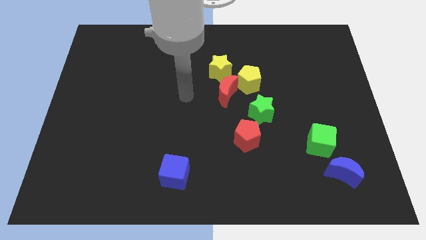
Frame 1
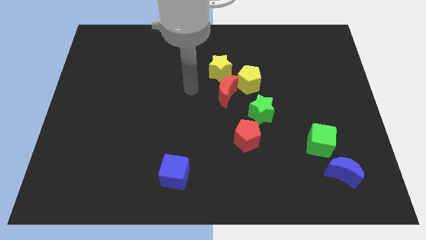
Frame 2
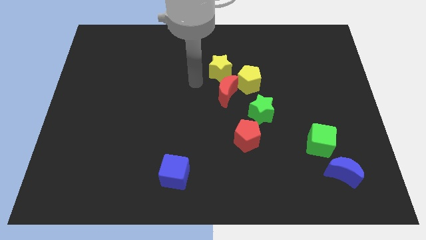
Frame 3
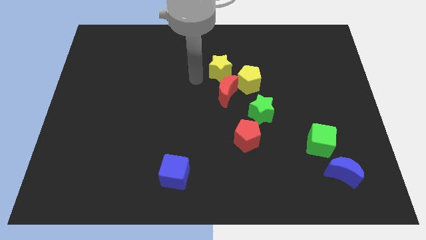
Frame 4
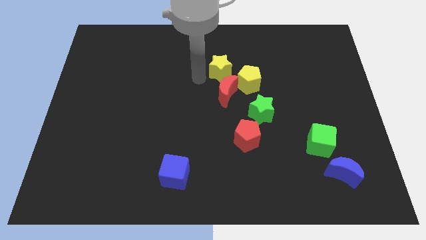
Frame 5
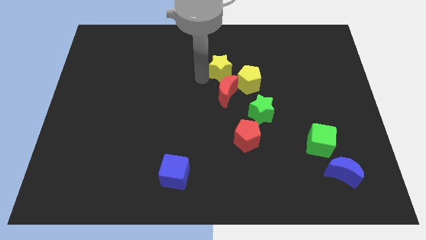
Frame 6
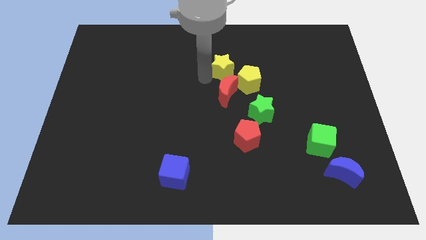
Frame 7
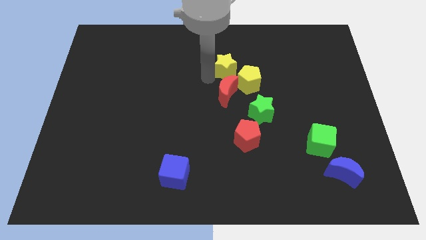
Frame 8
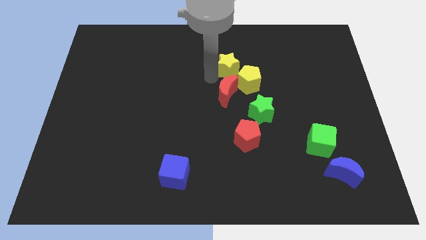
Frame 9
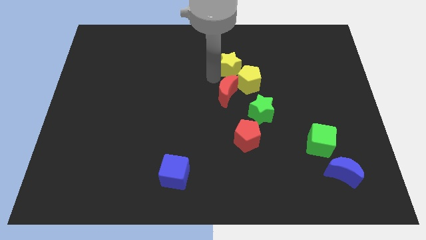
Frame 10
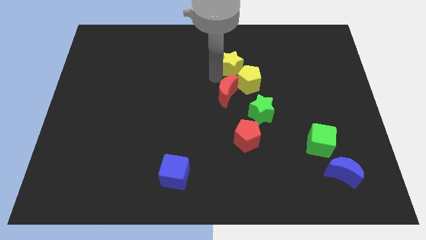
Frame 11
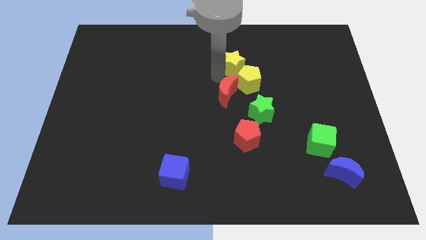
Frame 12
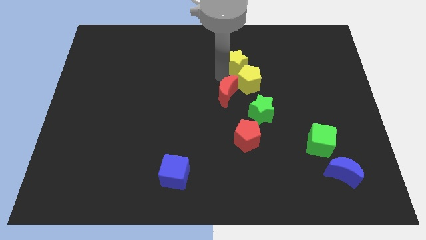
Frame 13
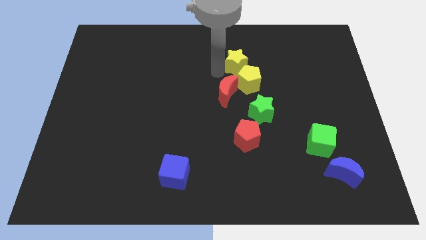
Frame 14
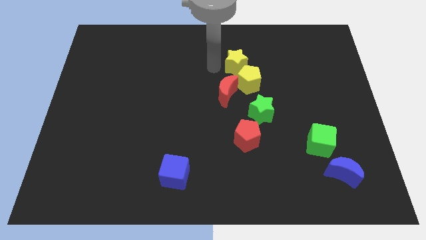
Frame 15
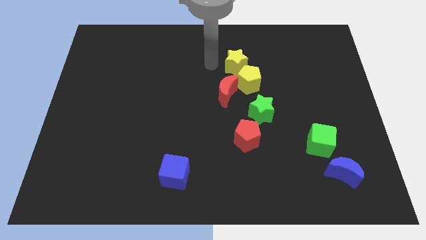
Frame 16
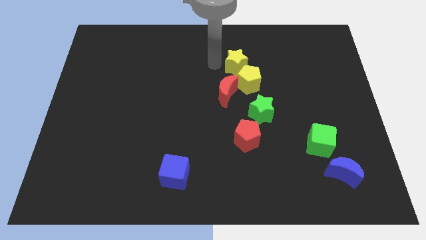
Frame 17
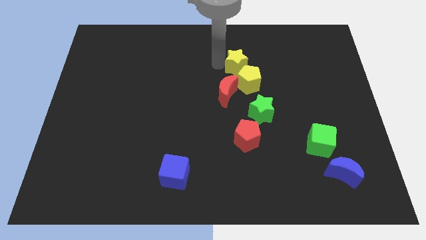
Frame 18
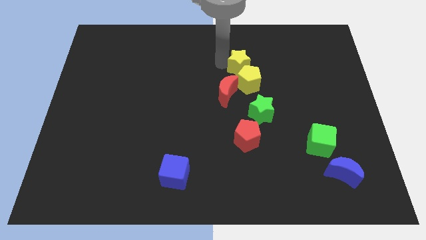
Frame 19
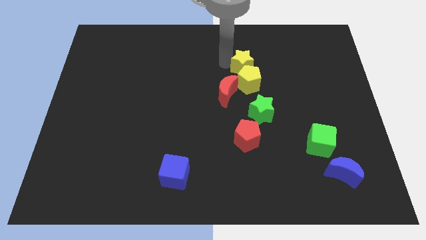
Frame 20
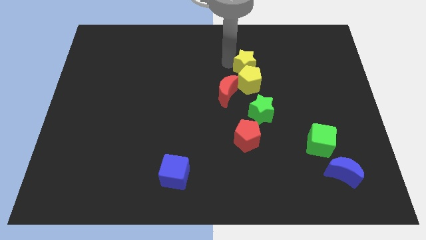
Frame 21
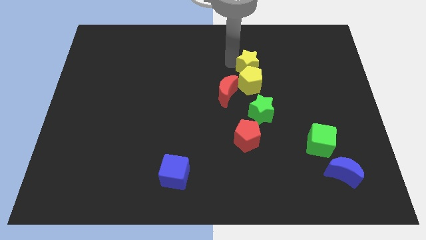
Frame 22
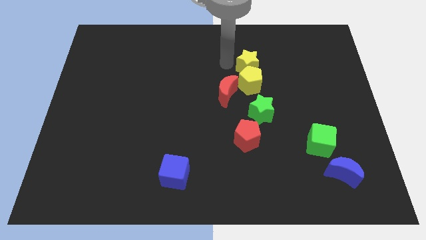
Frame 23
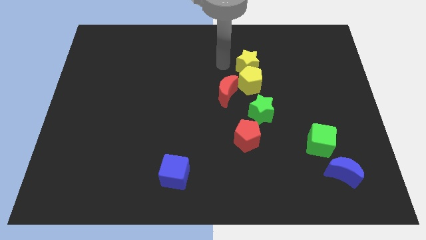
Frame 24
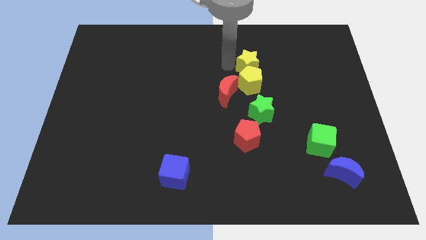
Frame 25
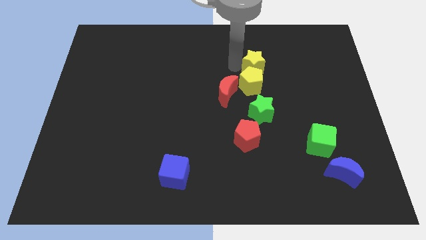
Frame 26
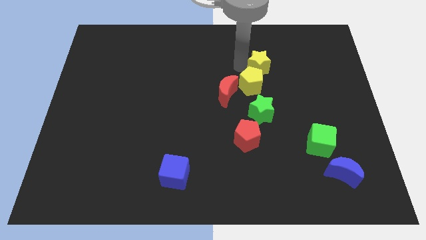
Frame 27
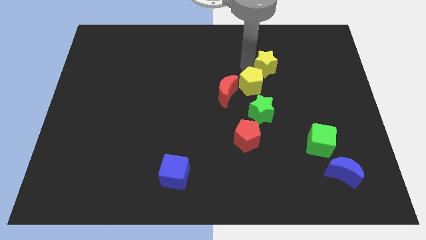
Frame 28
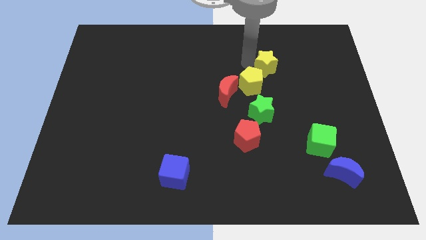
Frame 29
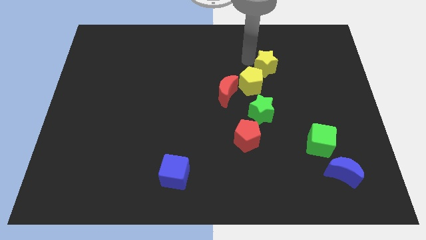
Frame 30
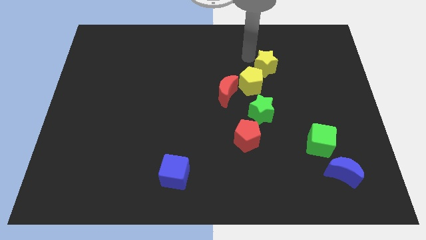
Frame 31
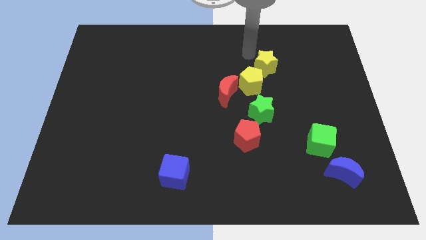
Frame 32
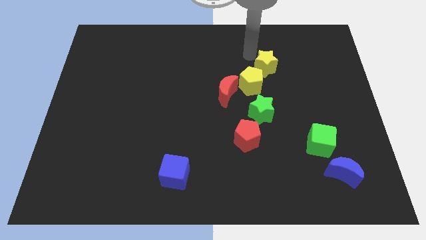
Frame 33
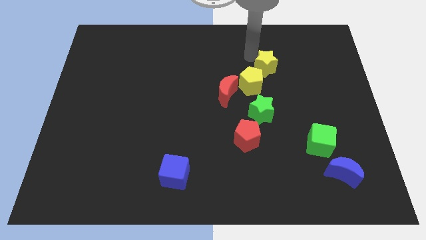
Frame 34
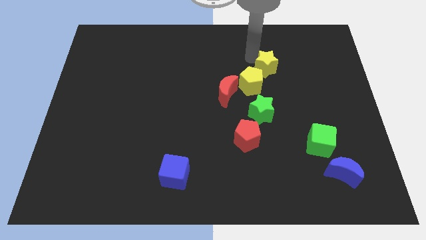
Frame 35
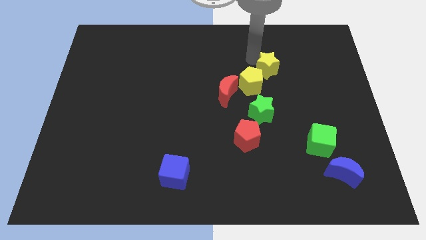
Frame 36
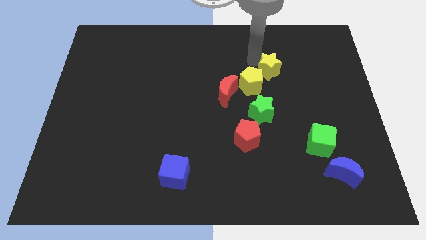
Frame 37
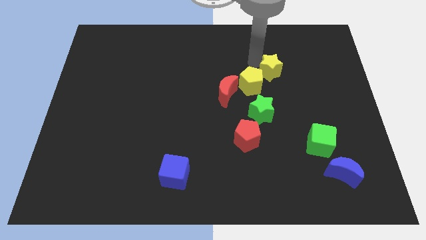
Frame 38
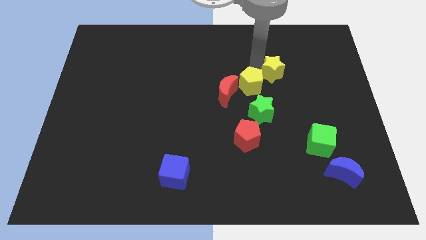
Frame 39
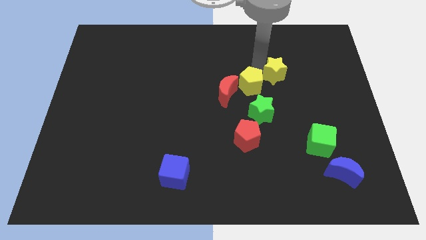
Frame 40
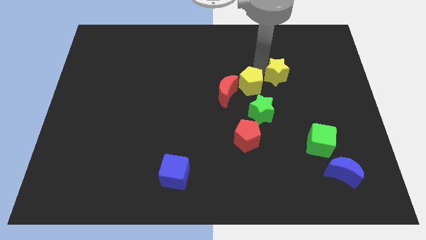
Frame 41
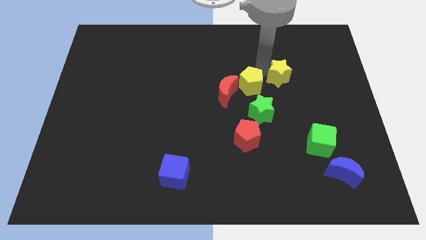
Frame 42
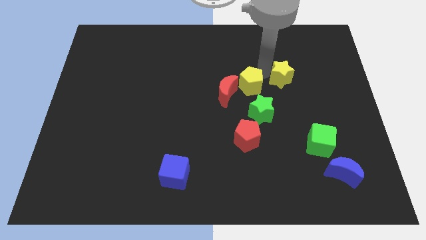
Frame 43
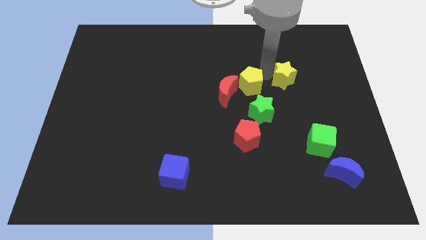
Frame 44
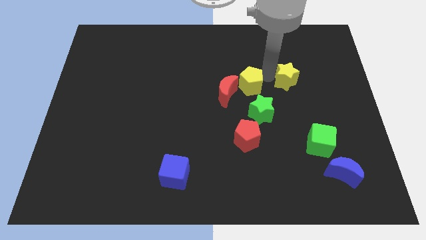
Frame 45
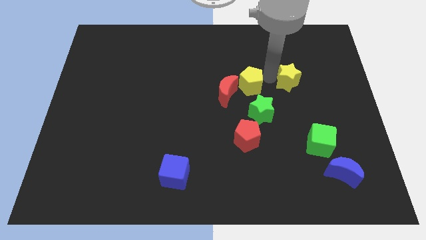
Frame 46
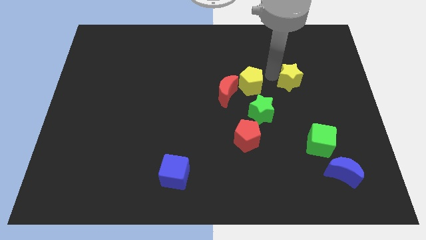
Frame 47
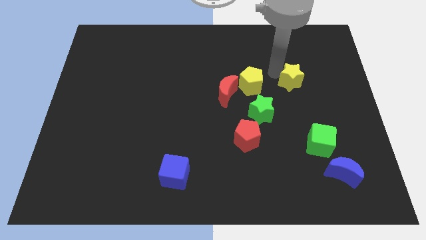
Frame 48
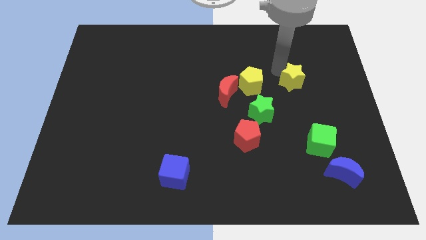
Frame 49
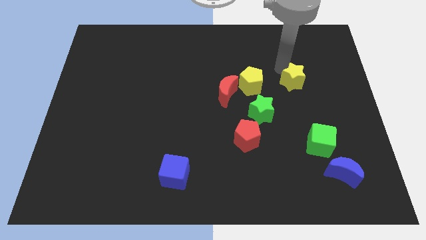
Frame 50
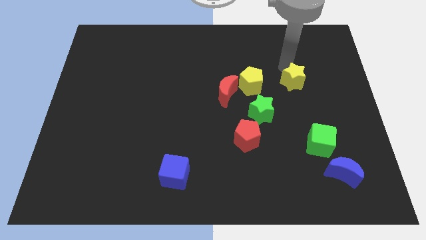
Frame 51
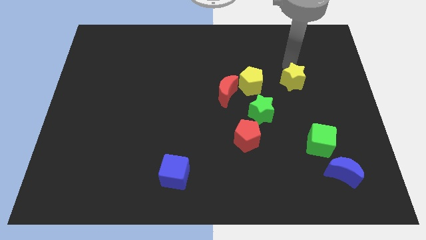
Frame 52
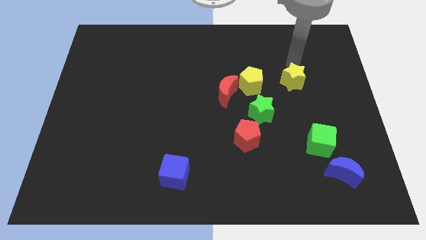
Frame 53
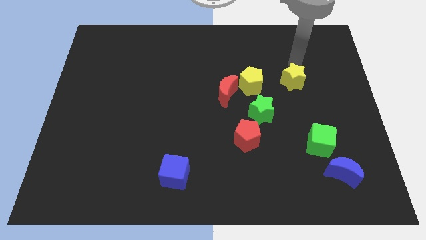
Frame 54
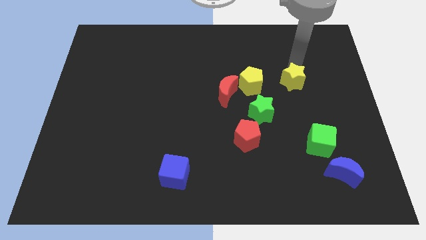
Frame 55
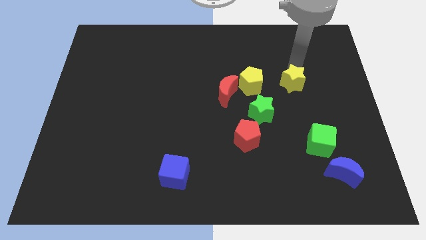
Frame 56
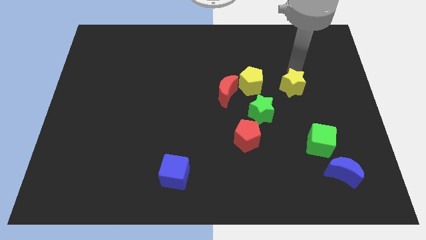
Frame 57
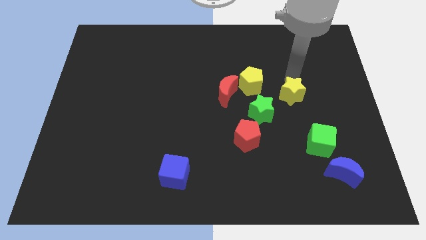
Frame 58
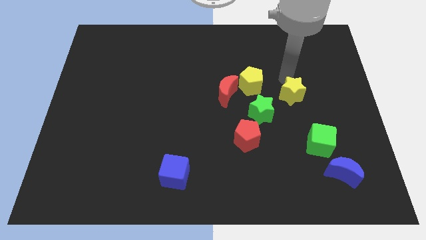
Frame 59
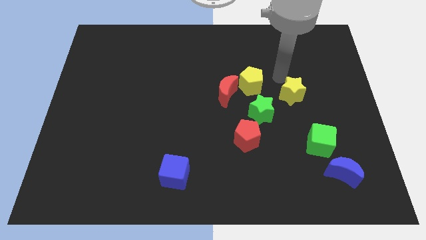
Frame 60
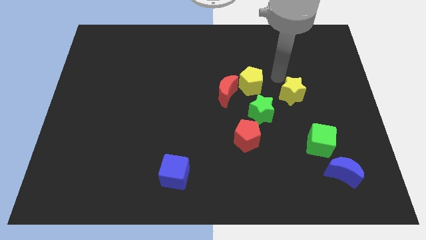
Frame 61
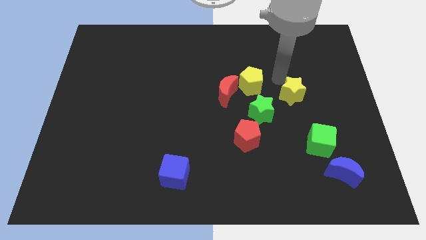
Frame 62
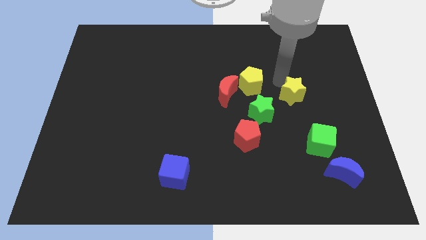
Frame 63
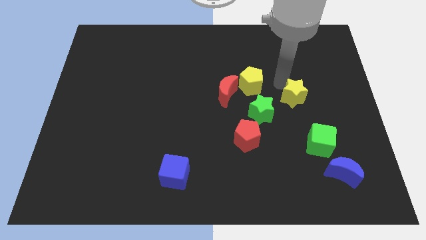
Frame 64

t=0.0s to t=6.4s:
slide the yellow star to the right of the green star

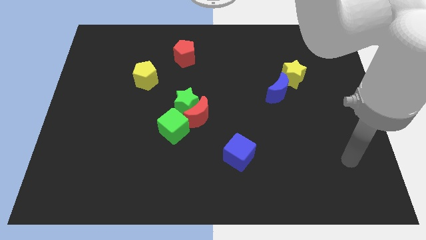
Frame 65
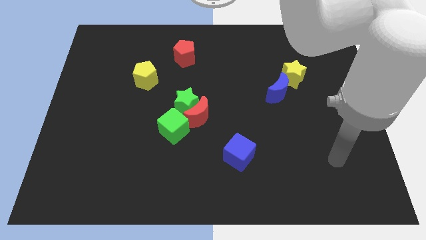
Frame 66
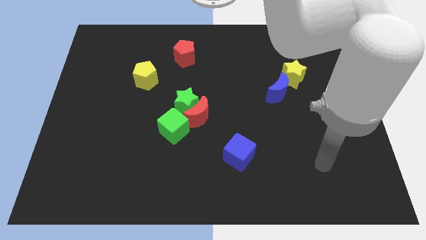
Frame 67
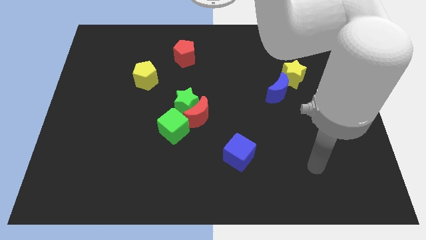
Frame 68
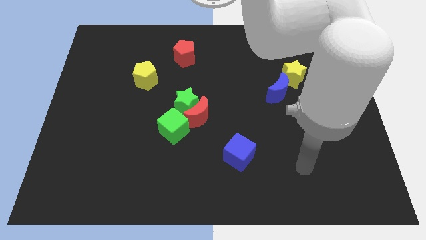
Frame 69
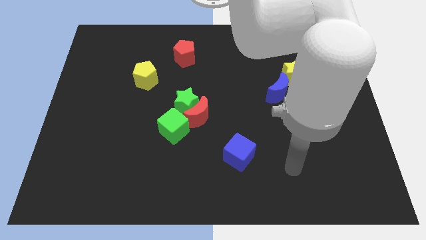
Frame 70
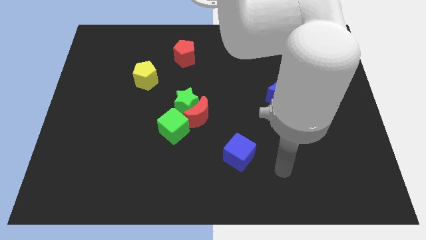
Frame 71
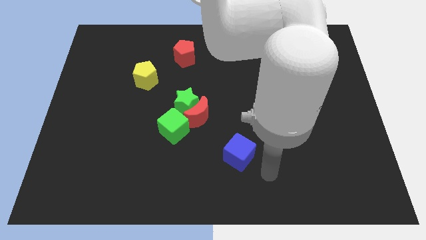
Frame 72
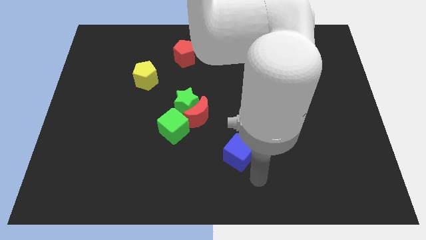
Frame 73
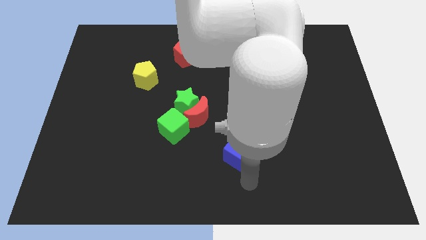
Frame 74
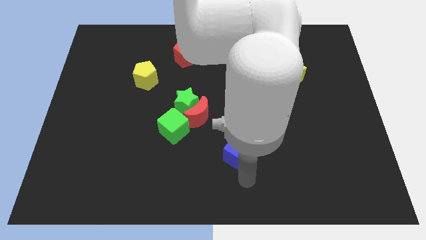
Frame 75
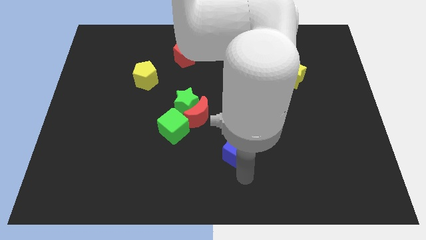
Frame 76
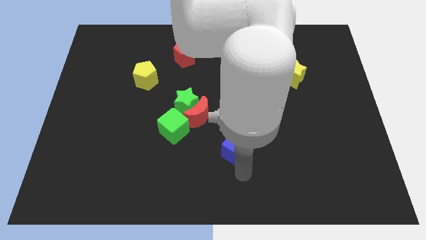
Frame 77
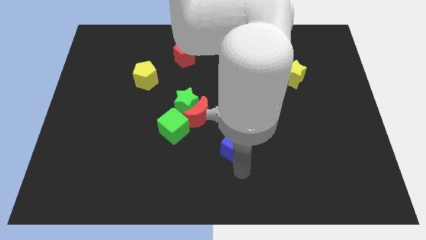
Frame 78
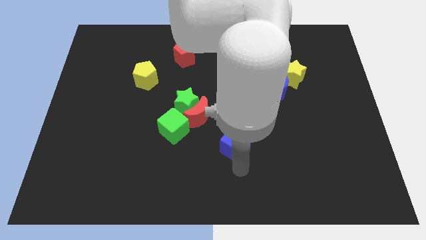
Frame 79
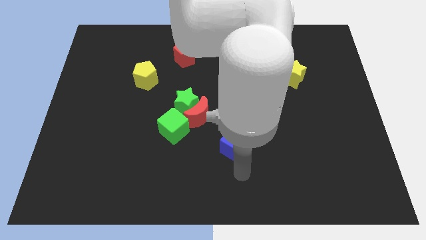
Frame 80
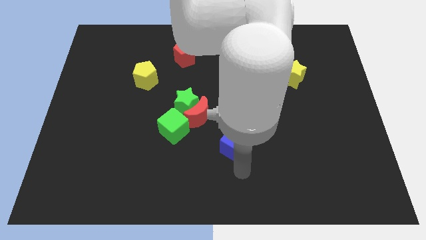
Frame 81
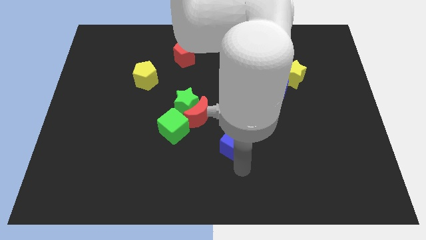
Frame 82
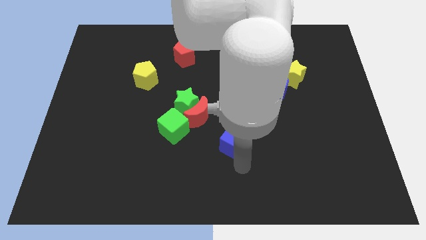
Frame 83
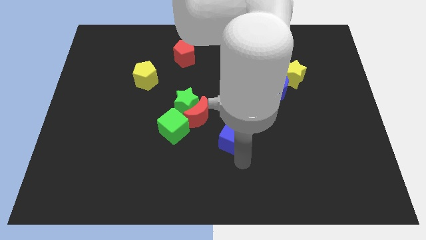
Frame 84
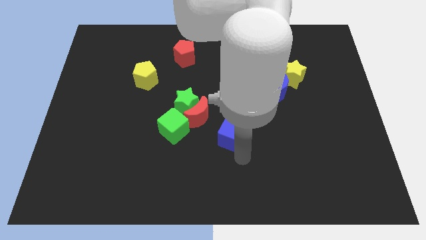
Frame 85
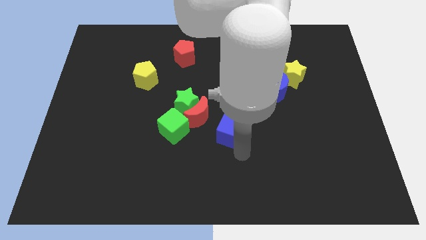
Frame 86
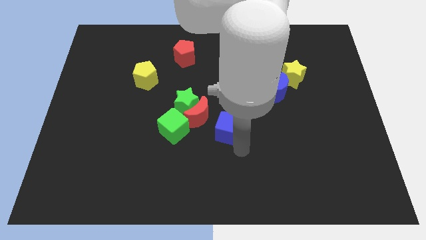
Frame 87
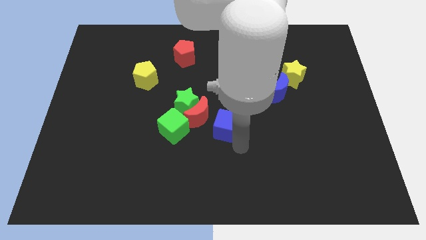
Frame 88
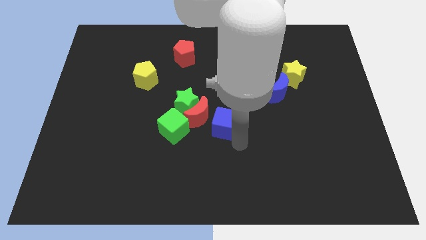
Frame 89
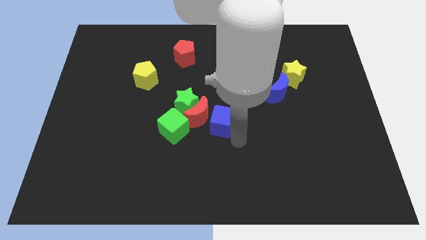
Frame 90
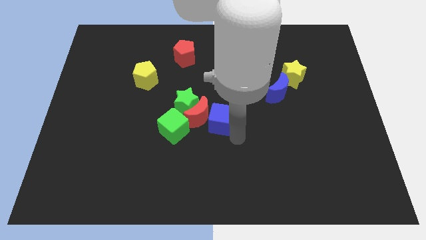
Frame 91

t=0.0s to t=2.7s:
put the blue cube right of the green star
